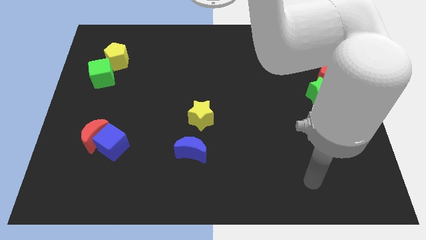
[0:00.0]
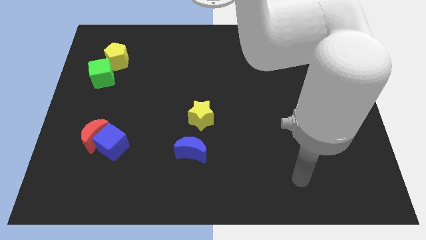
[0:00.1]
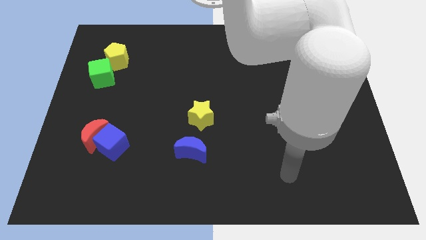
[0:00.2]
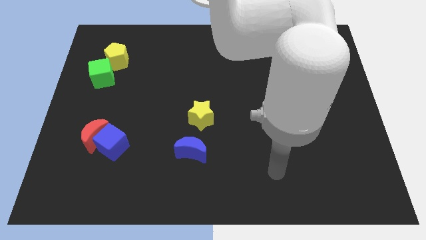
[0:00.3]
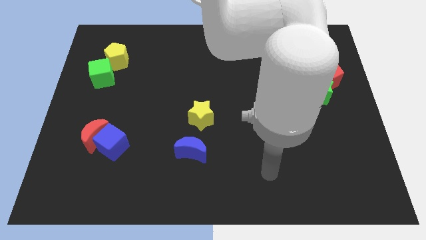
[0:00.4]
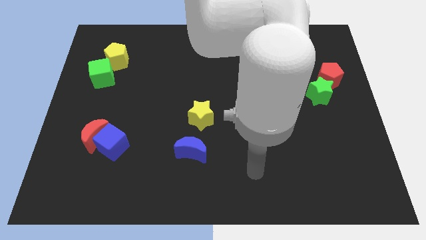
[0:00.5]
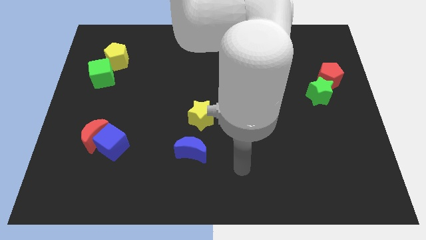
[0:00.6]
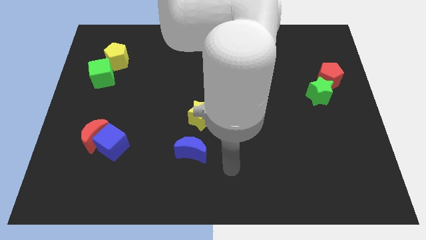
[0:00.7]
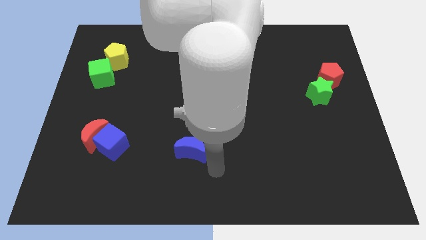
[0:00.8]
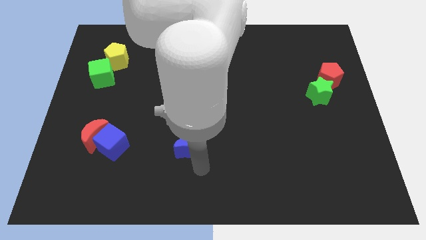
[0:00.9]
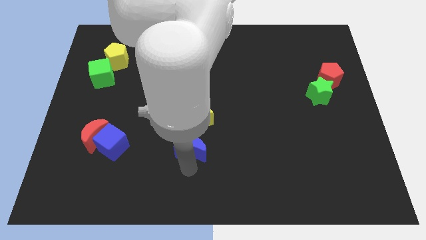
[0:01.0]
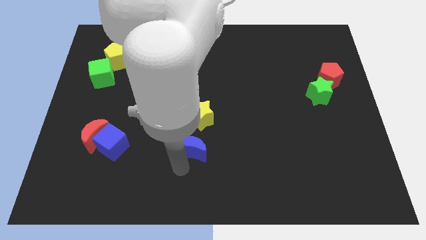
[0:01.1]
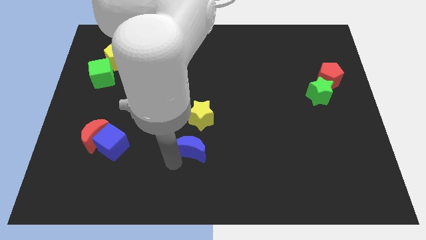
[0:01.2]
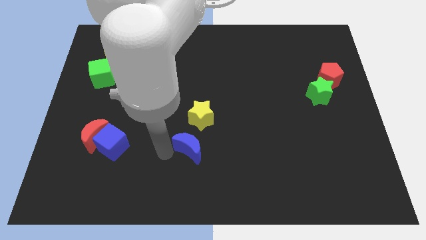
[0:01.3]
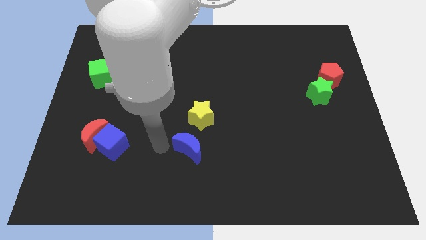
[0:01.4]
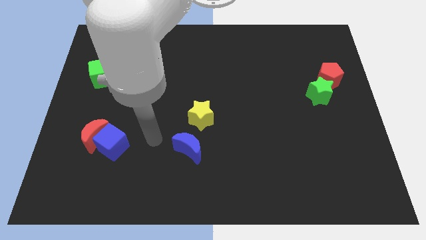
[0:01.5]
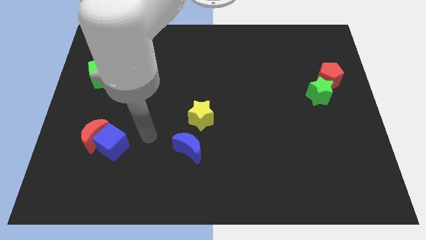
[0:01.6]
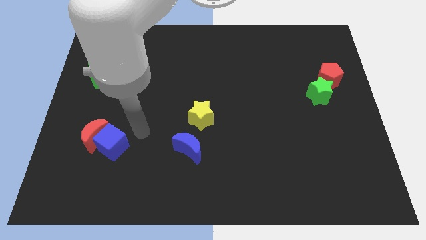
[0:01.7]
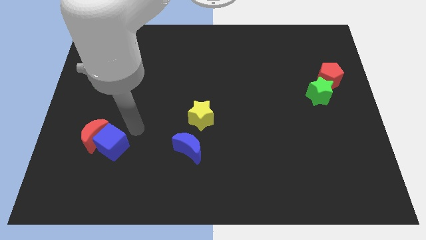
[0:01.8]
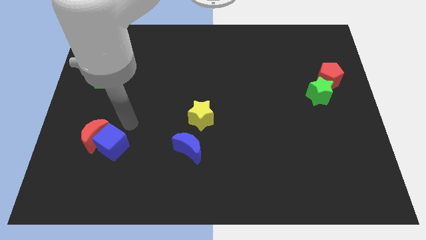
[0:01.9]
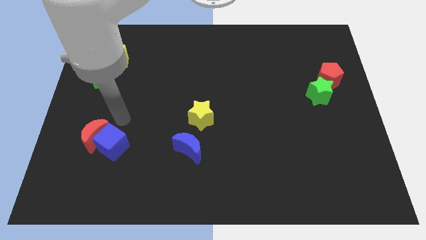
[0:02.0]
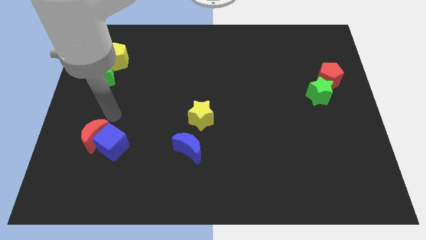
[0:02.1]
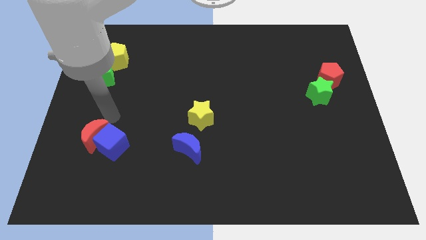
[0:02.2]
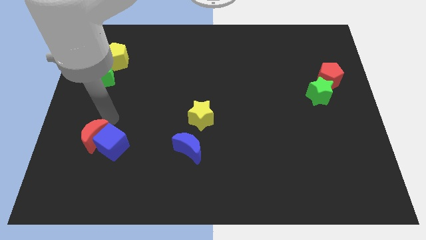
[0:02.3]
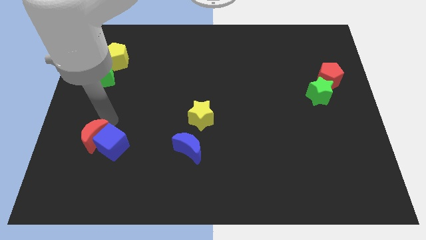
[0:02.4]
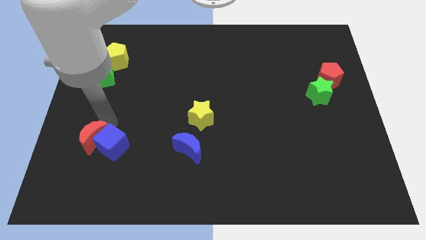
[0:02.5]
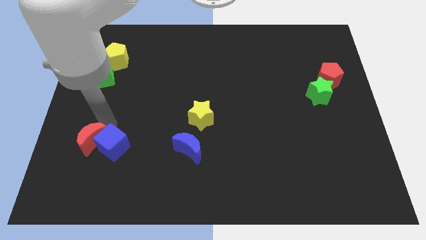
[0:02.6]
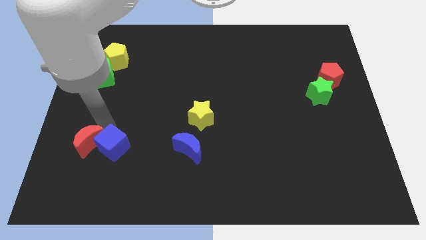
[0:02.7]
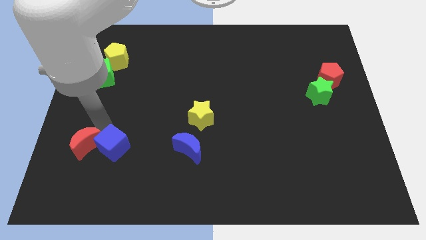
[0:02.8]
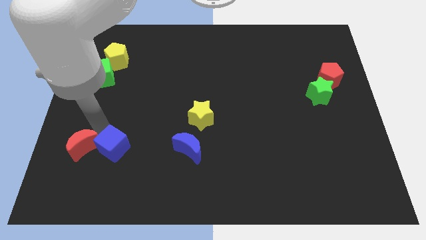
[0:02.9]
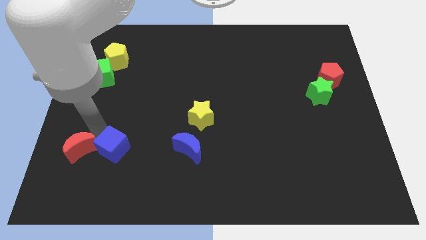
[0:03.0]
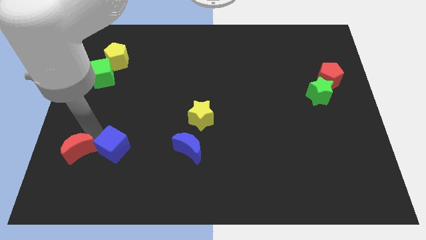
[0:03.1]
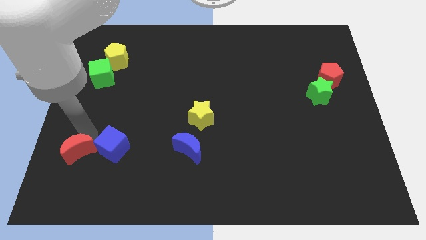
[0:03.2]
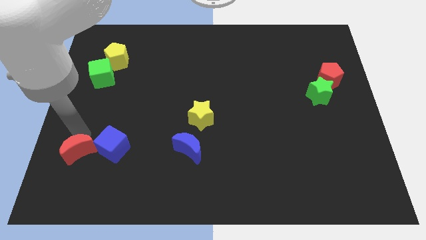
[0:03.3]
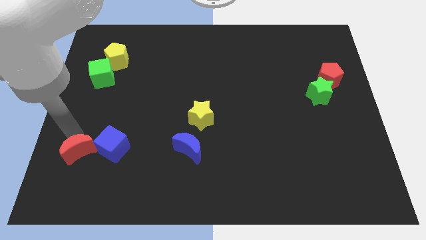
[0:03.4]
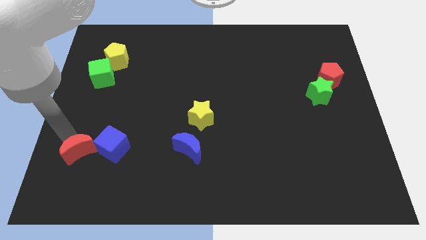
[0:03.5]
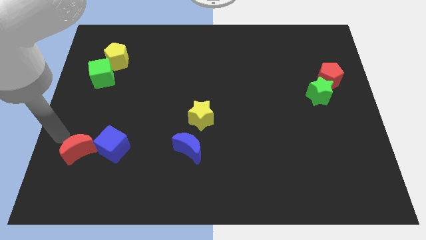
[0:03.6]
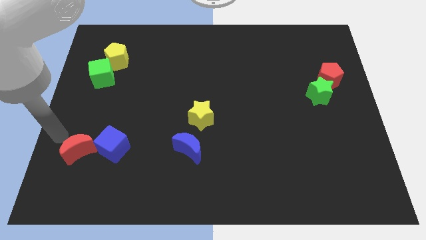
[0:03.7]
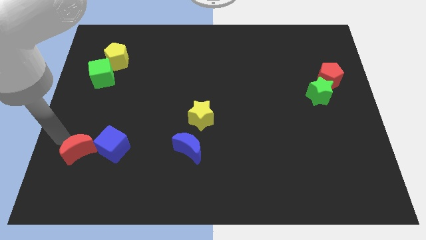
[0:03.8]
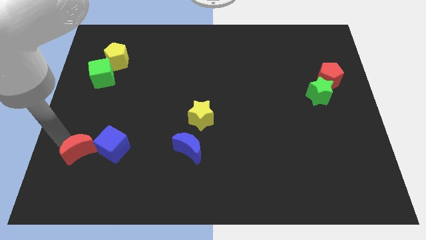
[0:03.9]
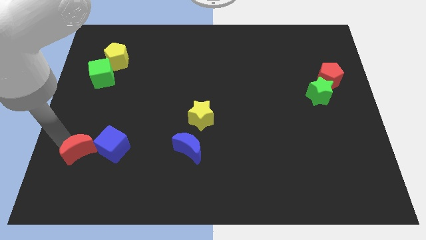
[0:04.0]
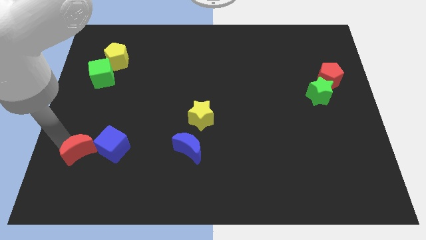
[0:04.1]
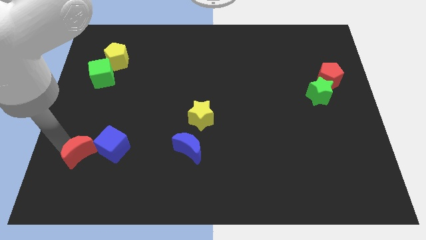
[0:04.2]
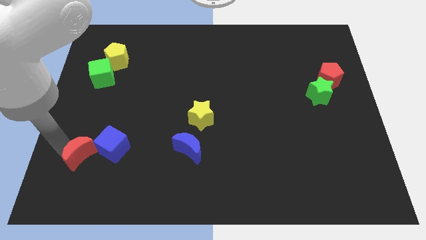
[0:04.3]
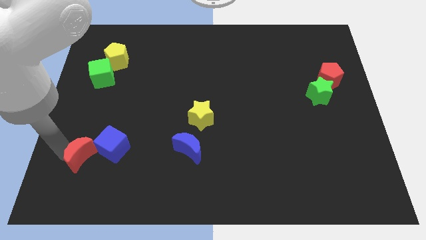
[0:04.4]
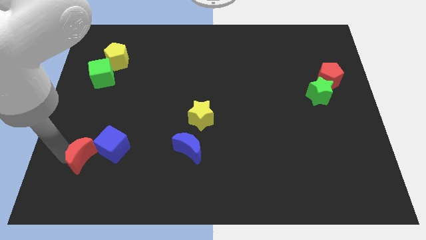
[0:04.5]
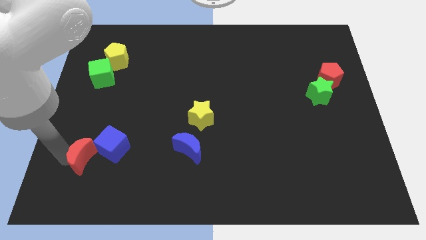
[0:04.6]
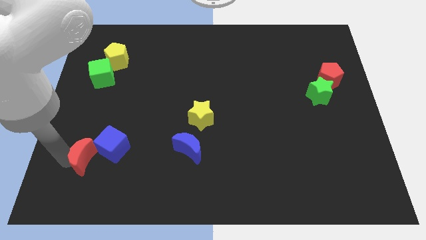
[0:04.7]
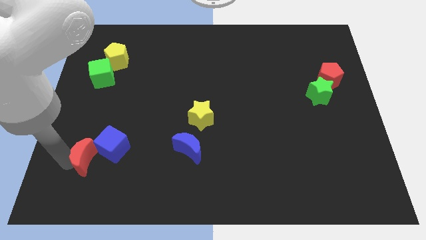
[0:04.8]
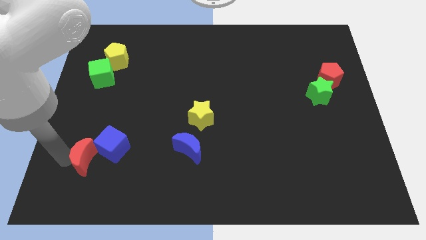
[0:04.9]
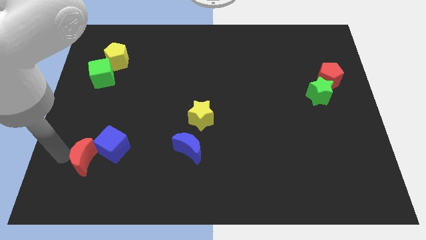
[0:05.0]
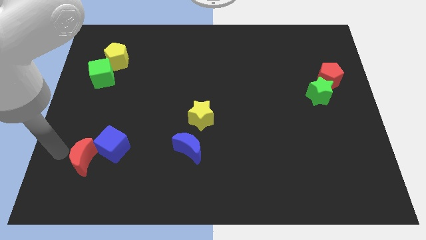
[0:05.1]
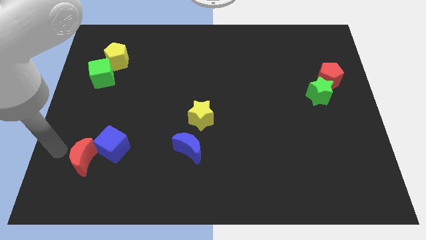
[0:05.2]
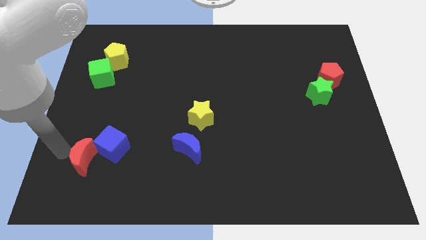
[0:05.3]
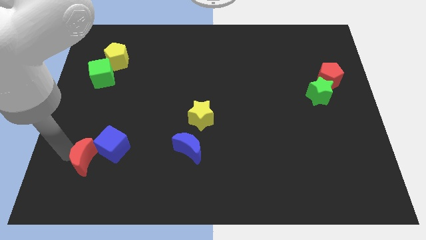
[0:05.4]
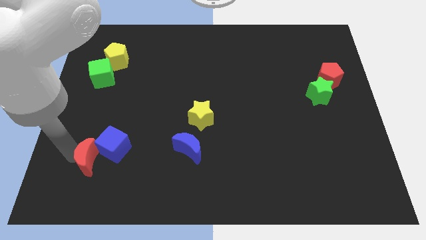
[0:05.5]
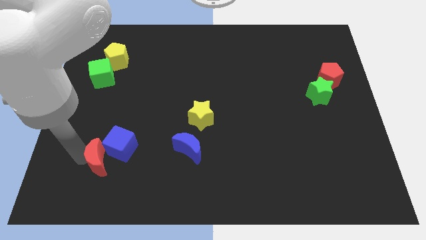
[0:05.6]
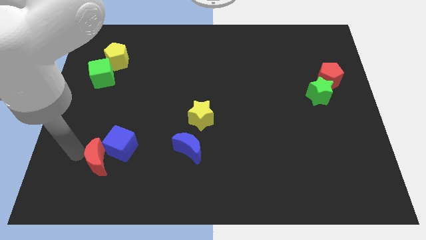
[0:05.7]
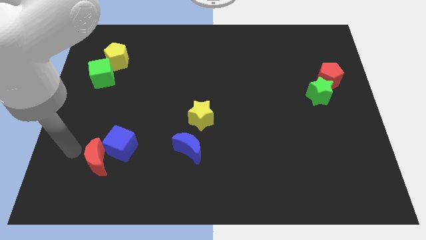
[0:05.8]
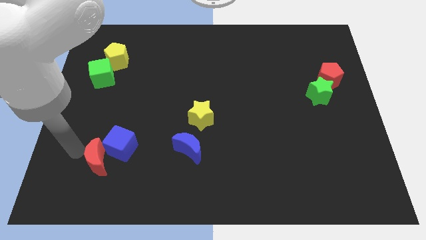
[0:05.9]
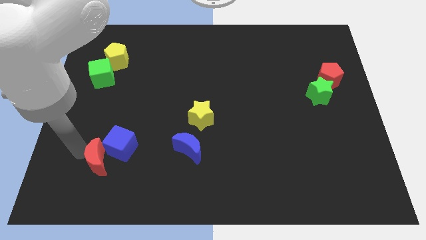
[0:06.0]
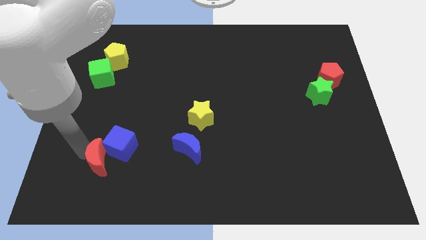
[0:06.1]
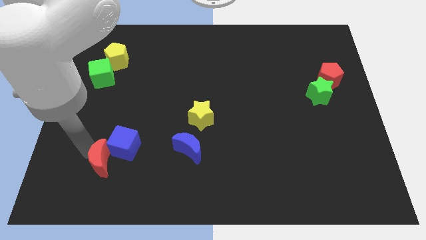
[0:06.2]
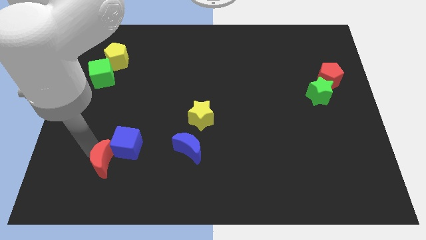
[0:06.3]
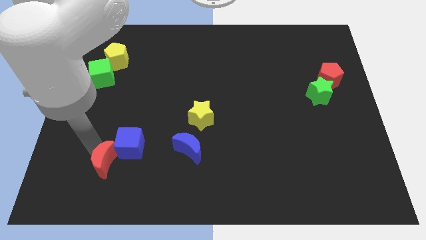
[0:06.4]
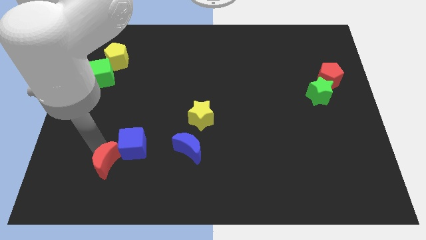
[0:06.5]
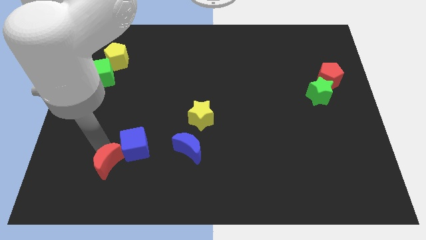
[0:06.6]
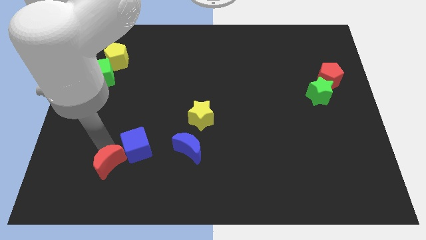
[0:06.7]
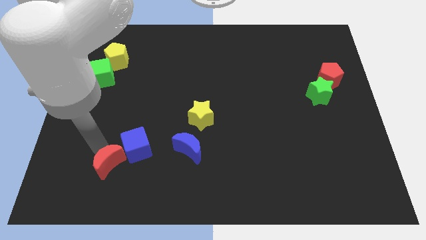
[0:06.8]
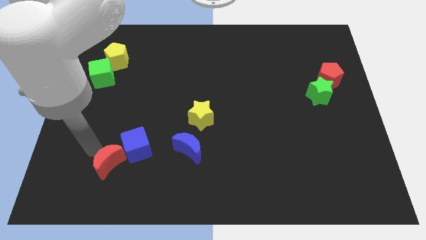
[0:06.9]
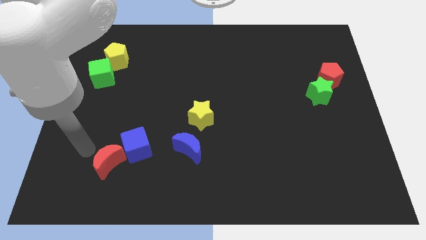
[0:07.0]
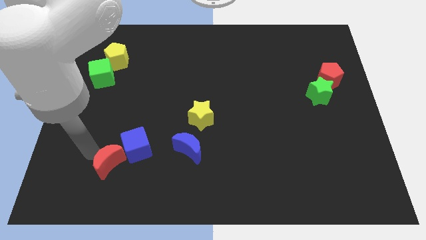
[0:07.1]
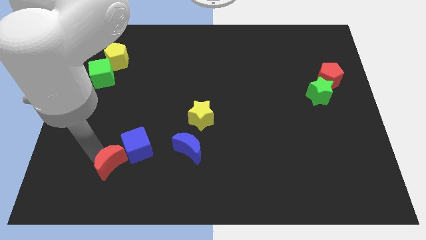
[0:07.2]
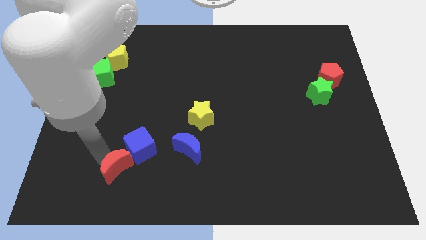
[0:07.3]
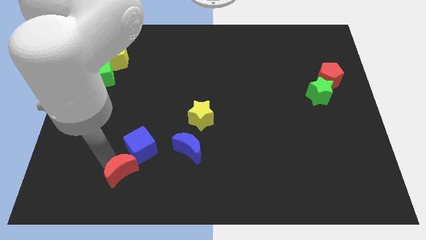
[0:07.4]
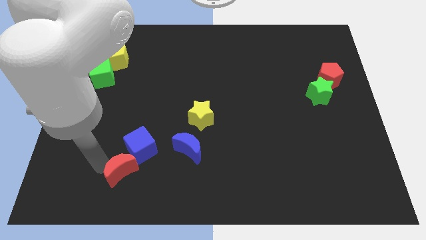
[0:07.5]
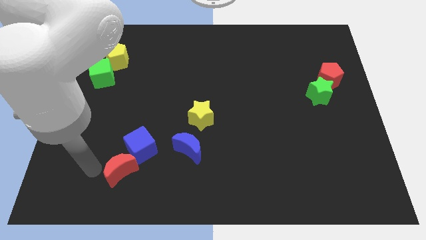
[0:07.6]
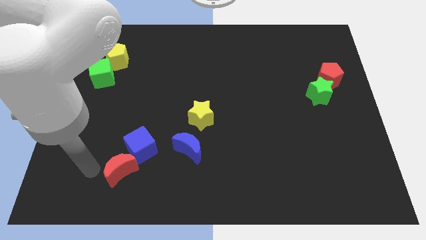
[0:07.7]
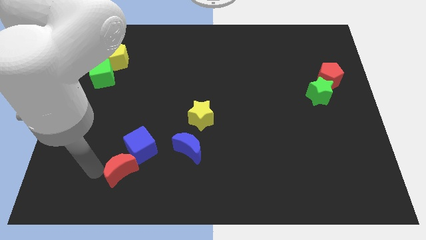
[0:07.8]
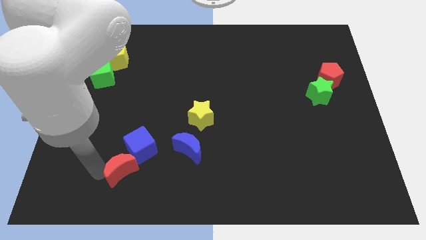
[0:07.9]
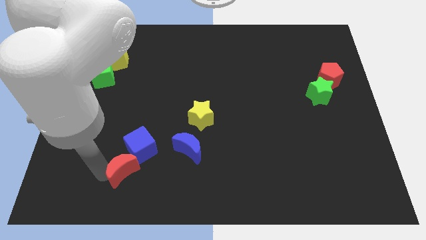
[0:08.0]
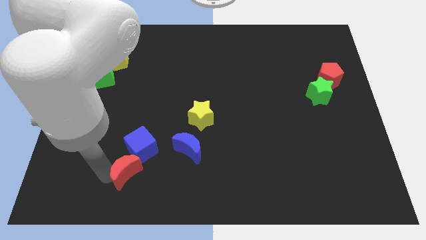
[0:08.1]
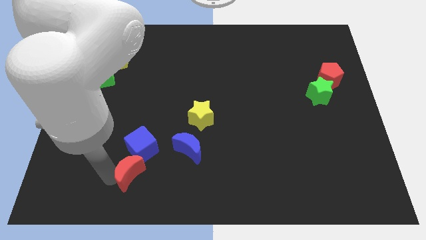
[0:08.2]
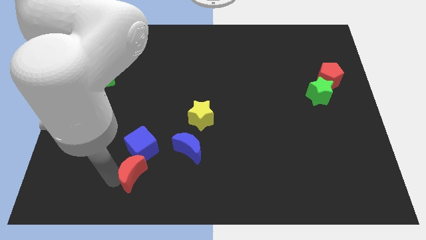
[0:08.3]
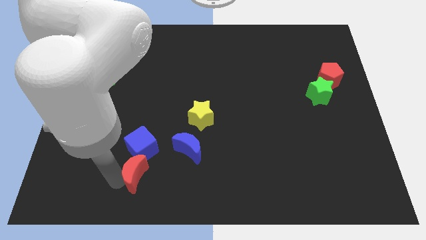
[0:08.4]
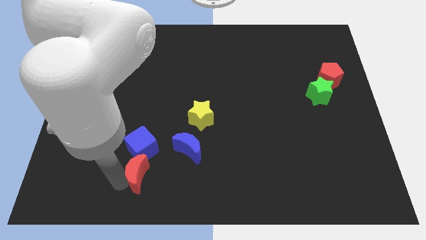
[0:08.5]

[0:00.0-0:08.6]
push the red moon to the bottom left side of the blue moon
